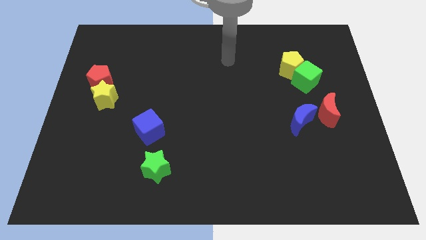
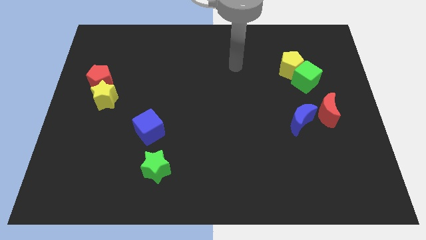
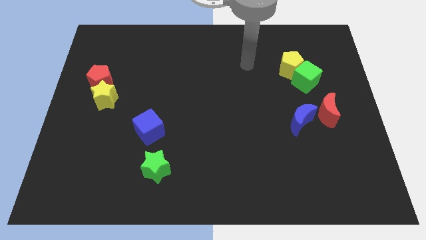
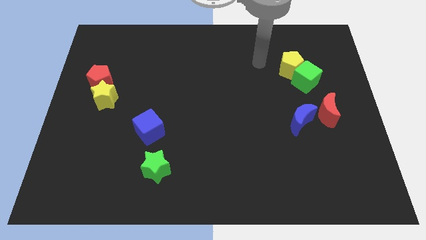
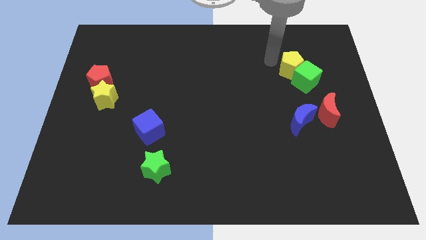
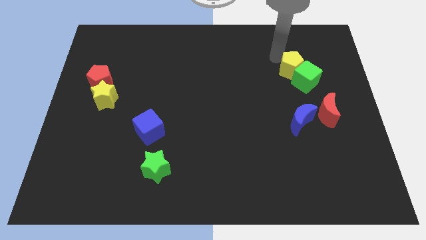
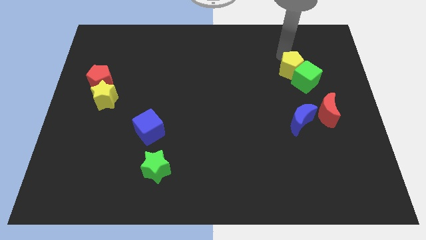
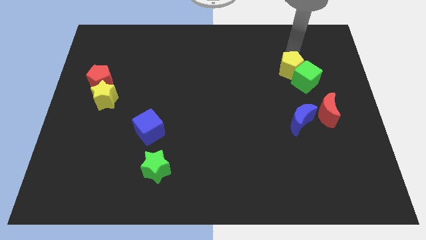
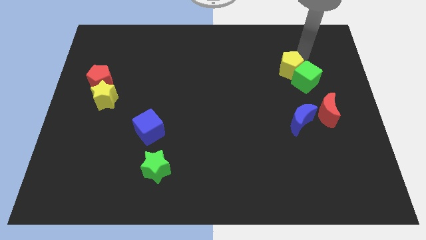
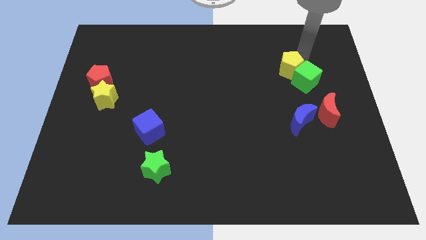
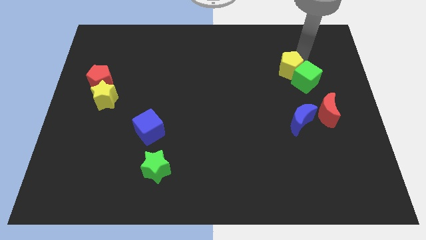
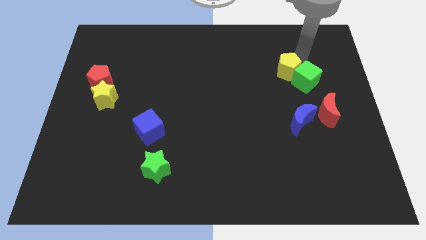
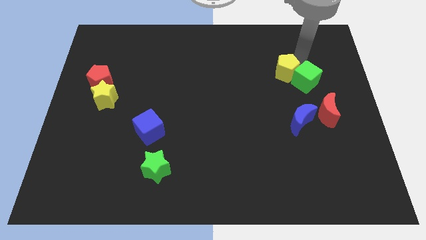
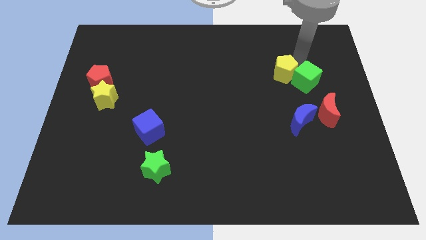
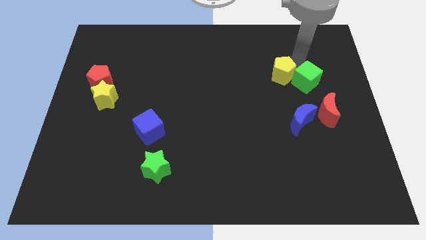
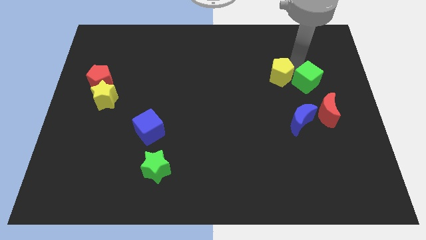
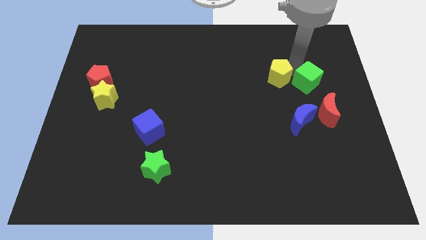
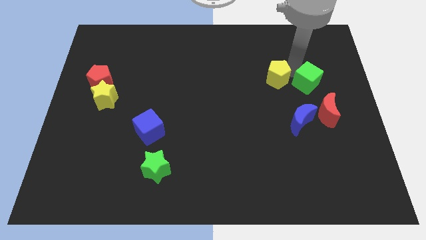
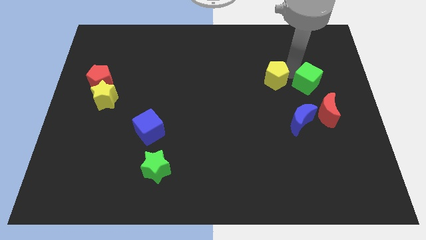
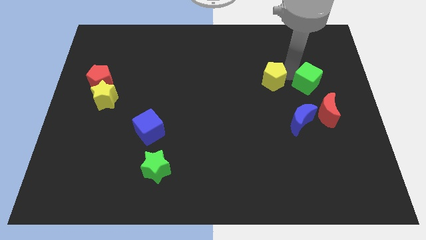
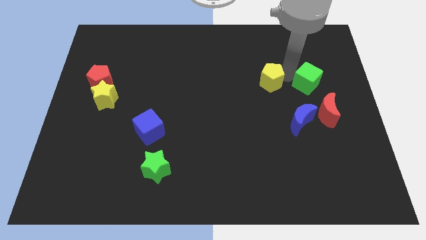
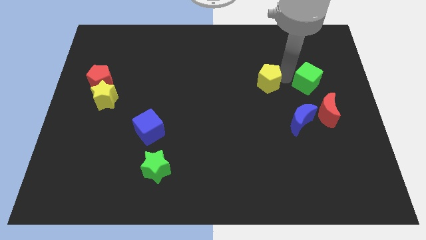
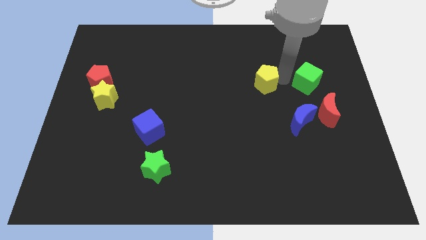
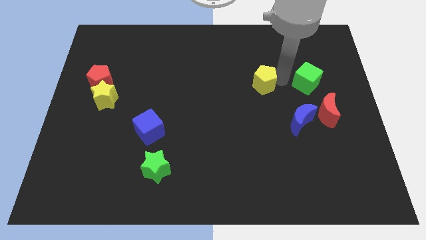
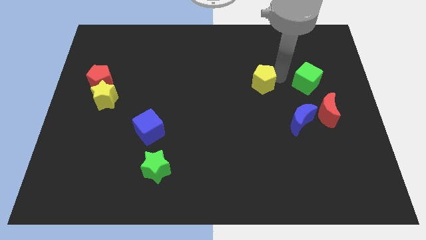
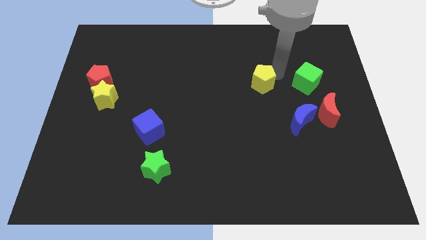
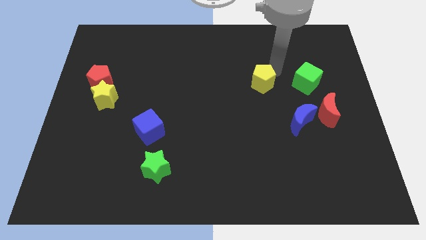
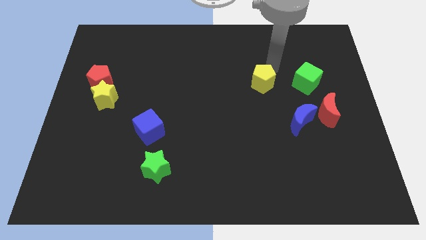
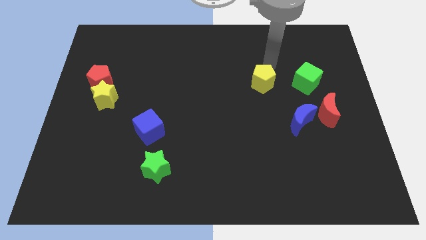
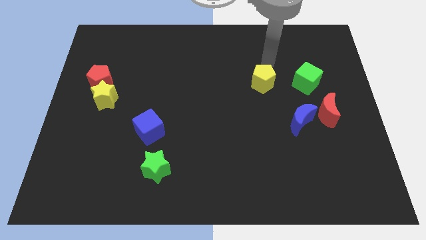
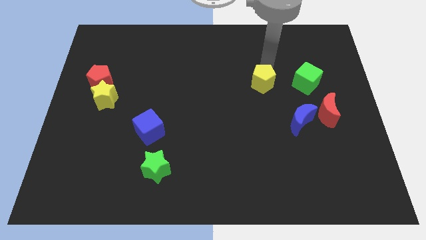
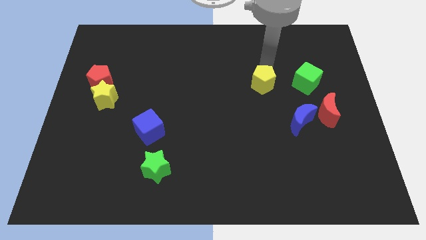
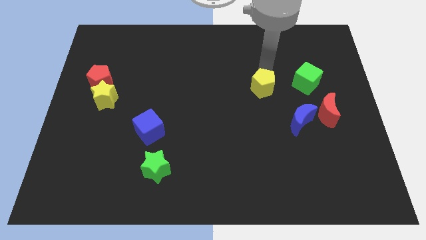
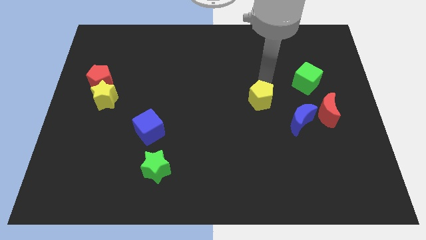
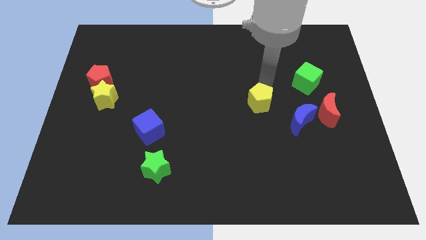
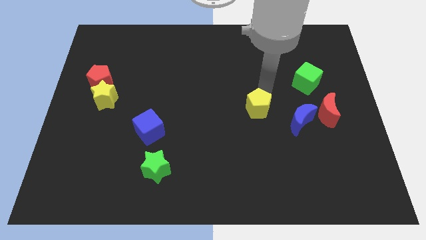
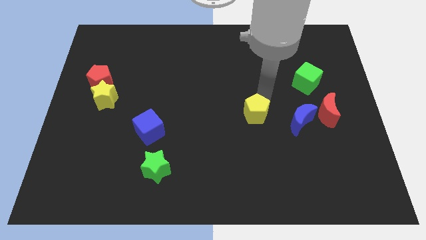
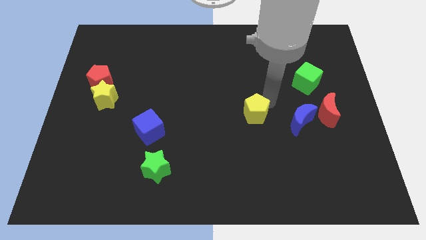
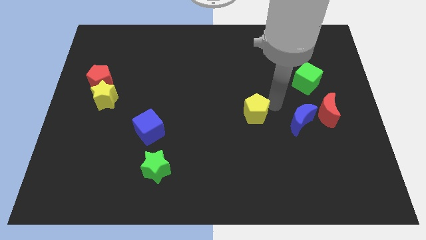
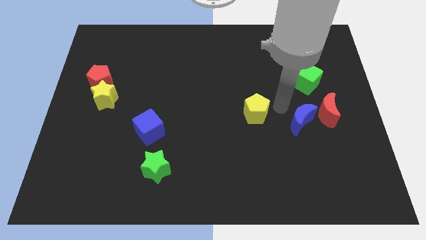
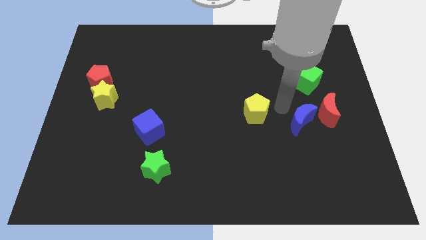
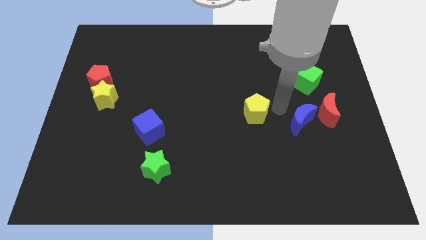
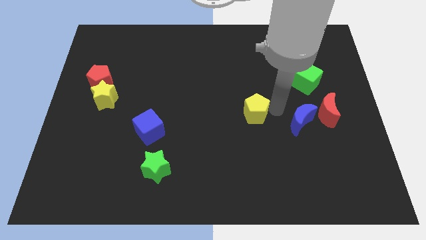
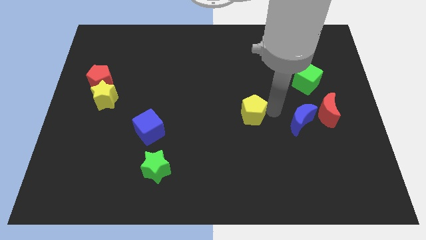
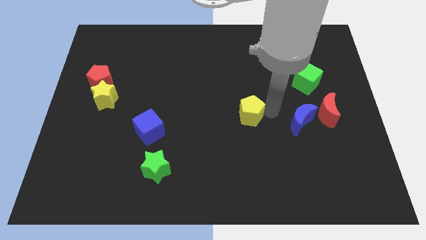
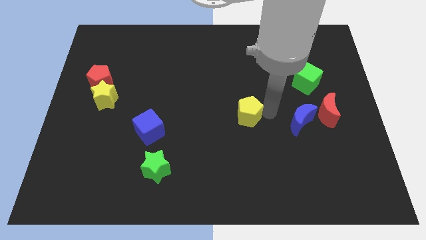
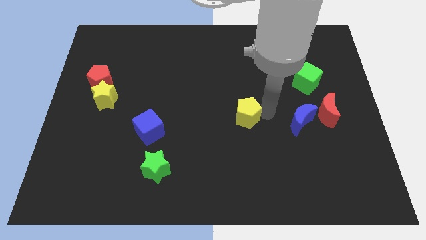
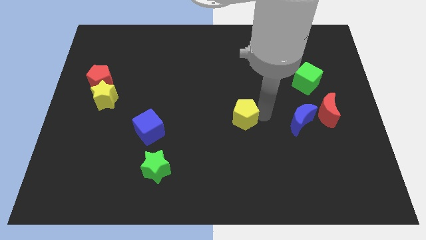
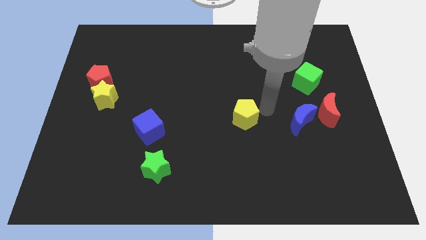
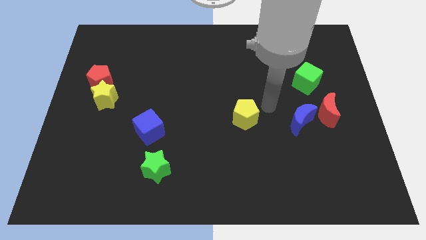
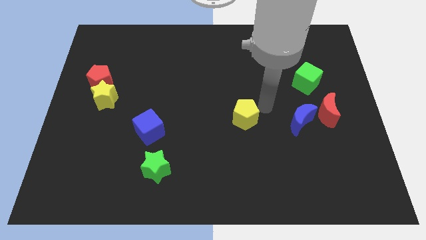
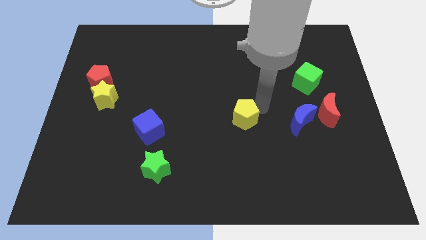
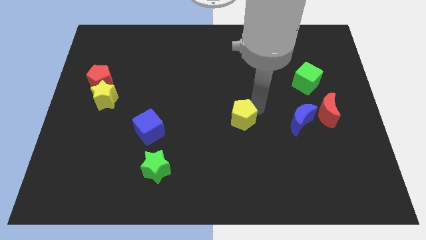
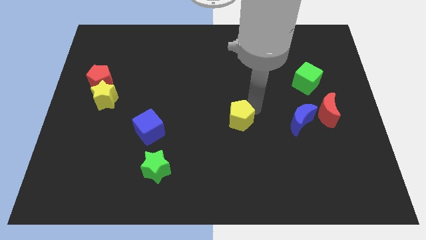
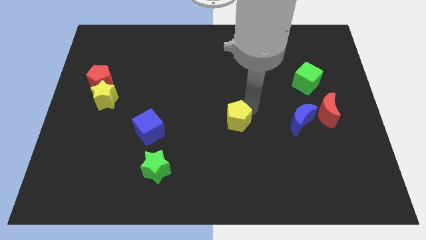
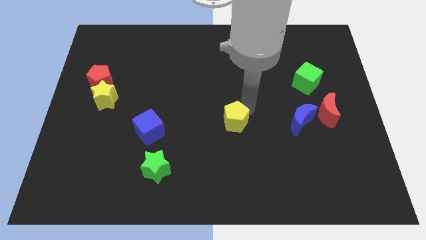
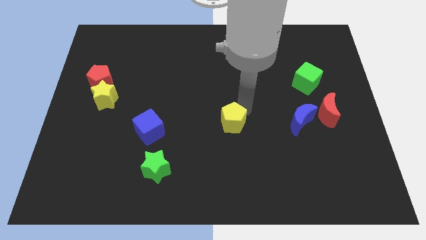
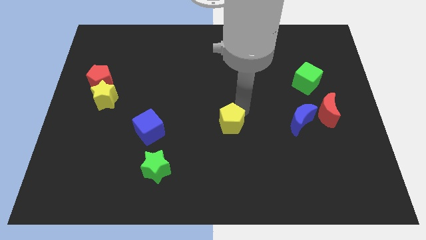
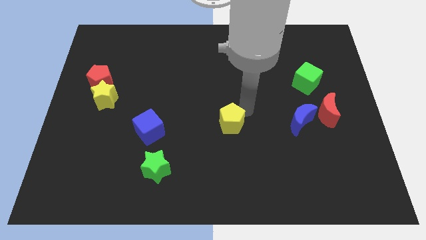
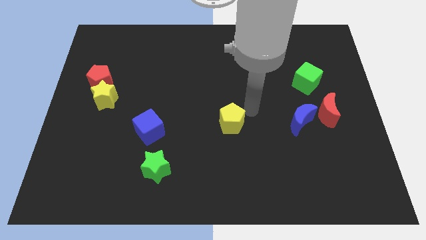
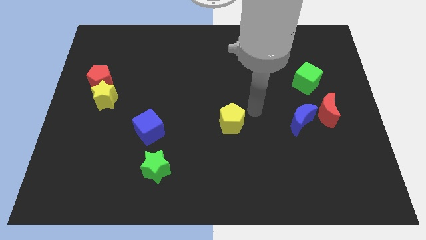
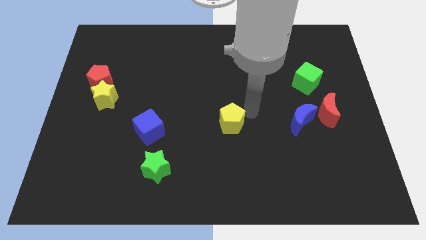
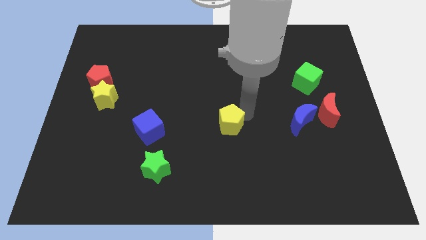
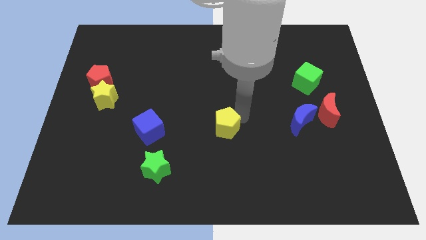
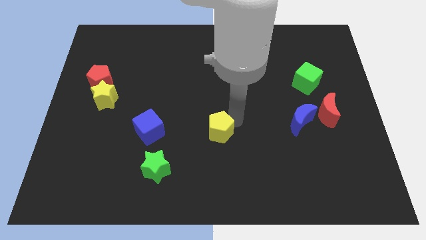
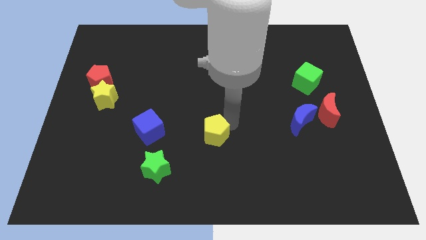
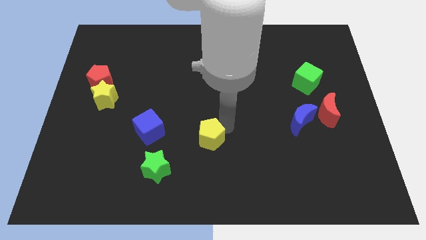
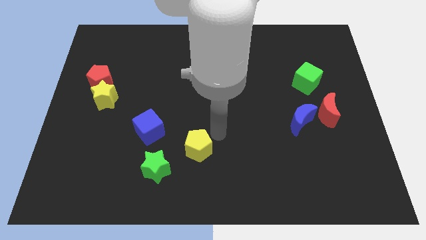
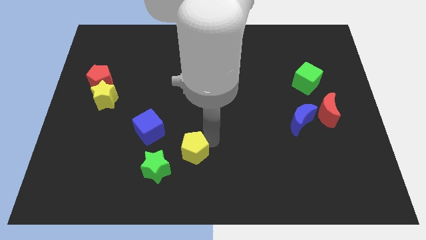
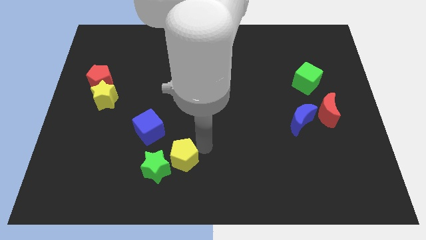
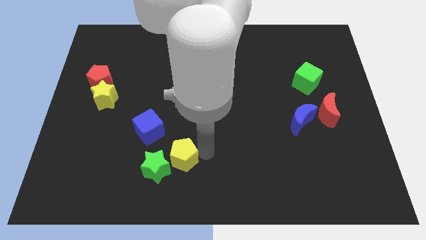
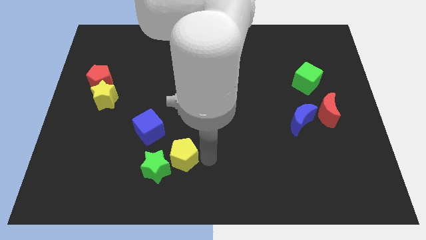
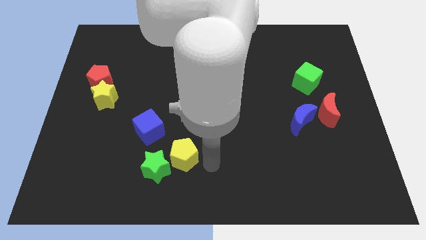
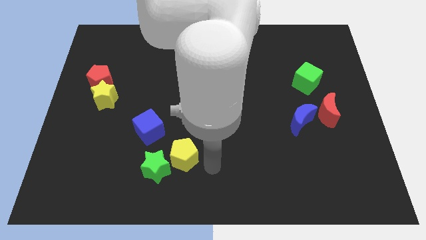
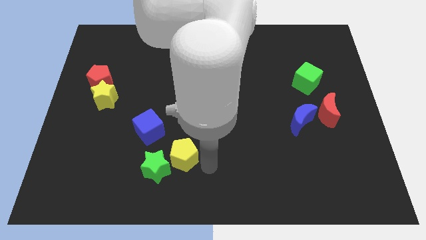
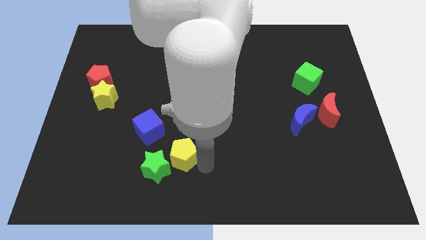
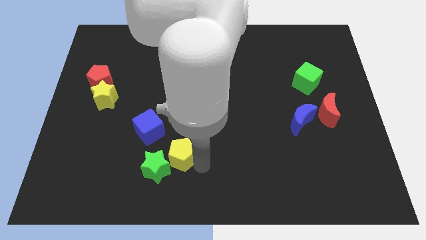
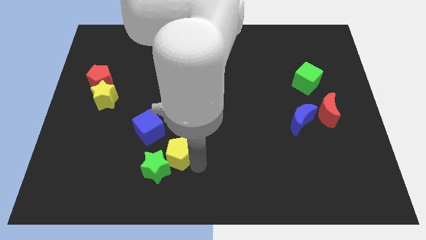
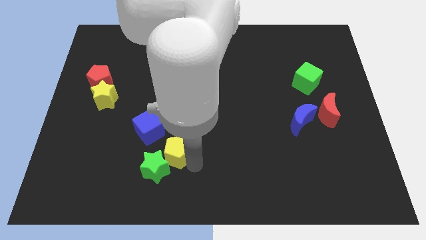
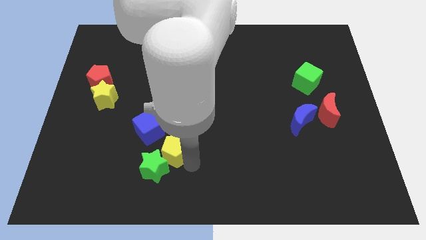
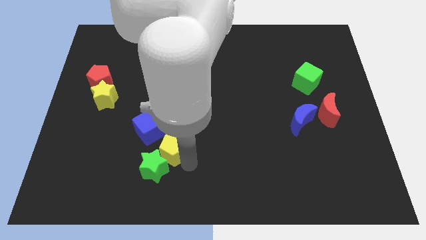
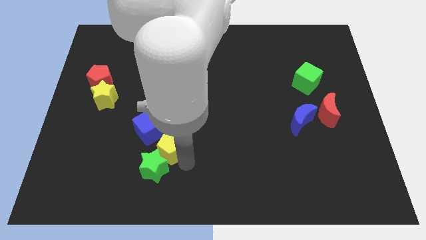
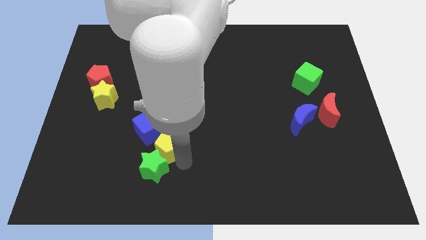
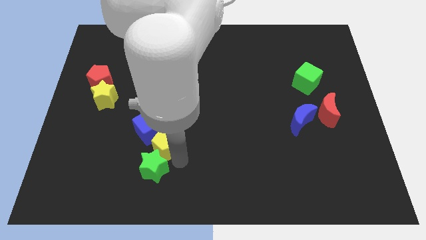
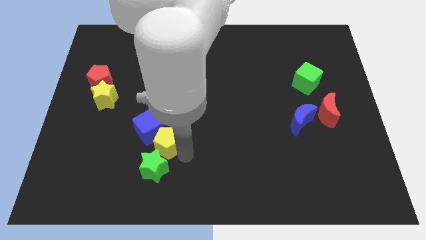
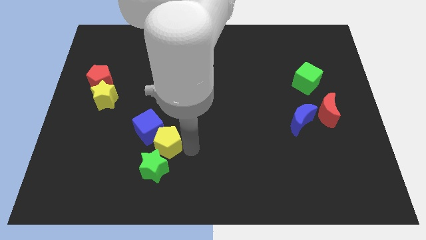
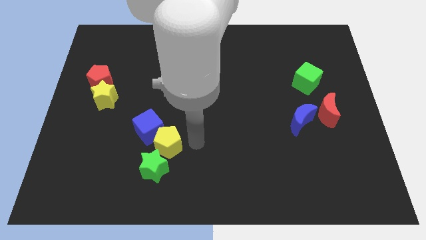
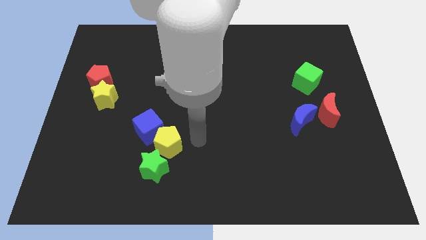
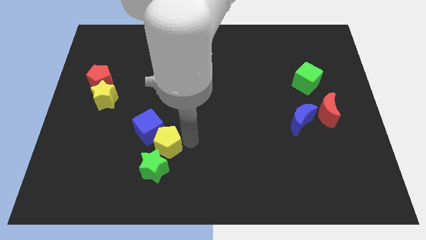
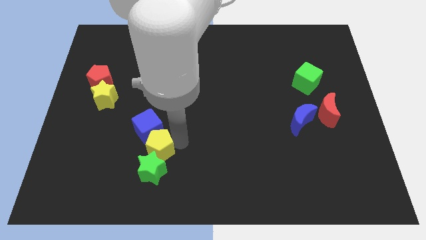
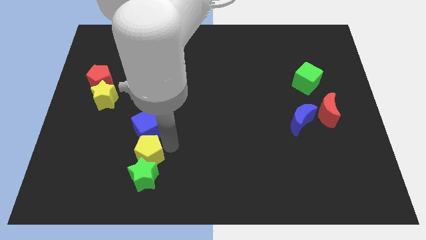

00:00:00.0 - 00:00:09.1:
slide the yellow pentagon diagonally down and to the left of the blue cube
